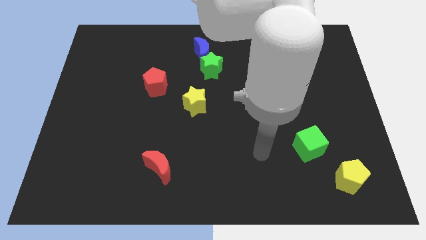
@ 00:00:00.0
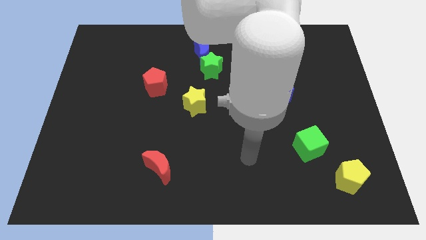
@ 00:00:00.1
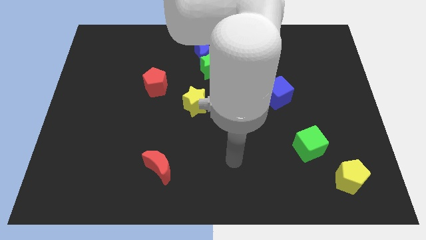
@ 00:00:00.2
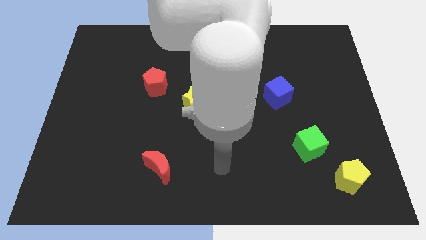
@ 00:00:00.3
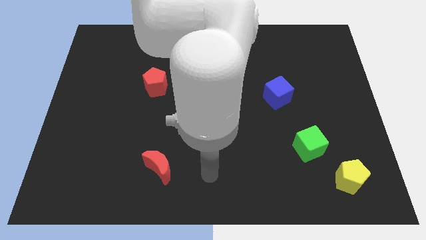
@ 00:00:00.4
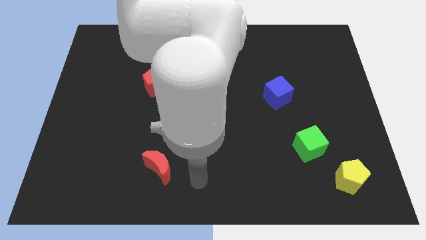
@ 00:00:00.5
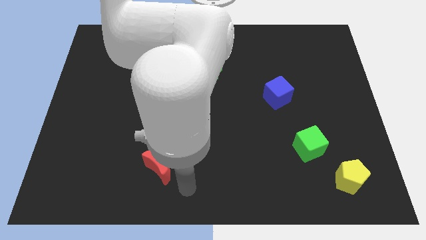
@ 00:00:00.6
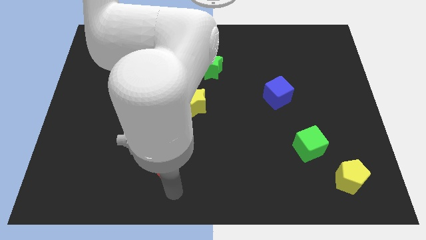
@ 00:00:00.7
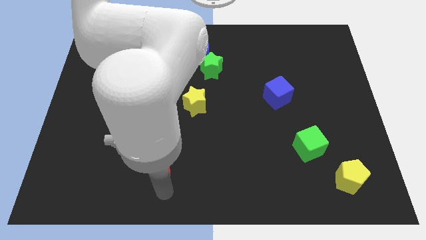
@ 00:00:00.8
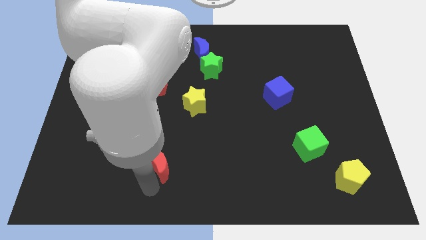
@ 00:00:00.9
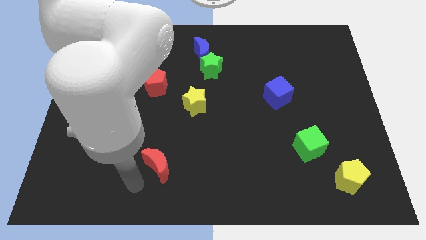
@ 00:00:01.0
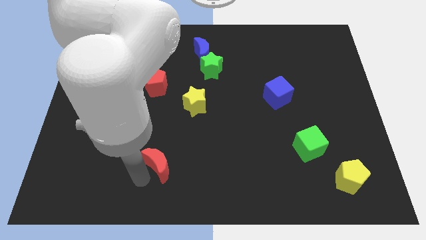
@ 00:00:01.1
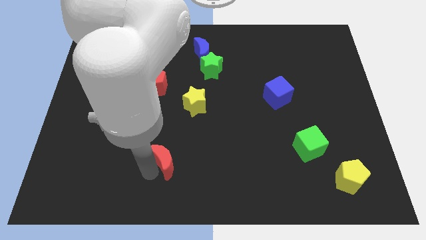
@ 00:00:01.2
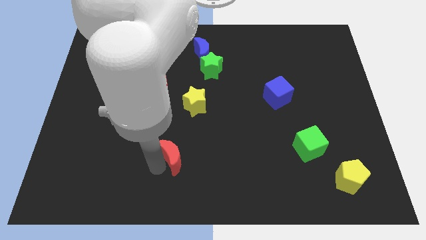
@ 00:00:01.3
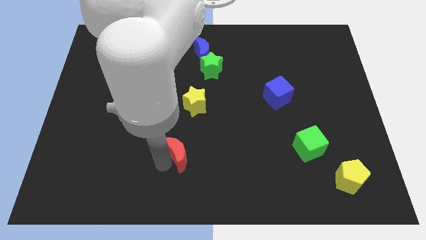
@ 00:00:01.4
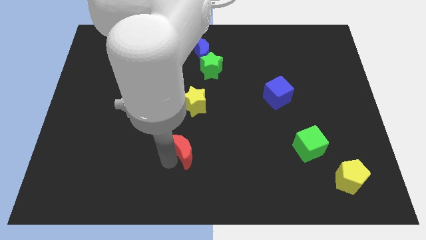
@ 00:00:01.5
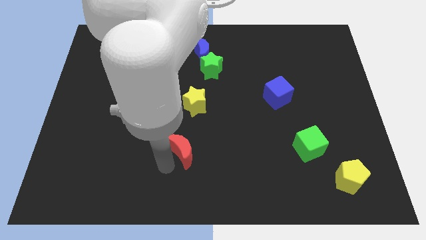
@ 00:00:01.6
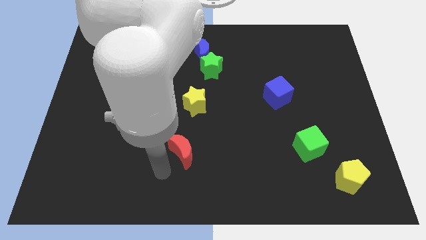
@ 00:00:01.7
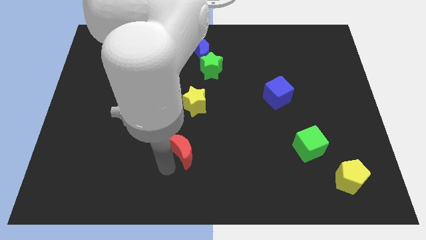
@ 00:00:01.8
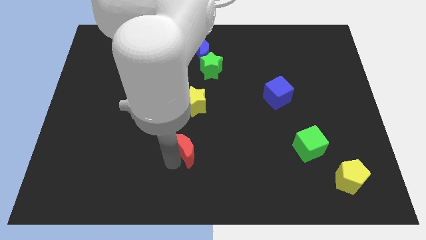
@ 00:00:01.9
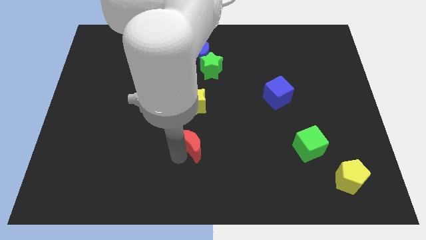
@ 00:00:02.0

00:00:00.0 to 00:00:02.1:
slightly move the red moon up and to the right

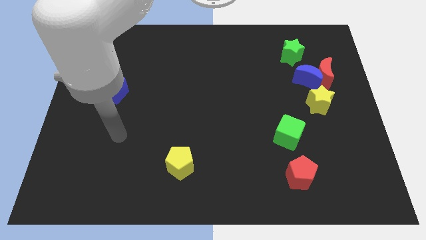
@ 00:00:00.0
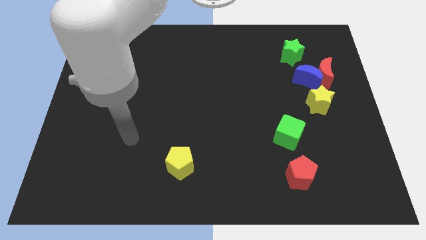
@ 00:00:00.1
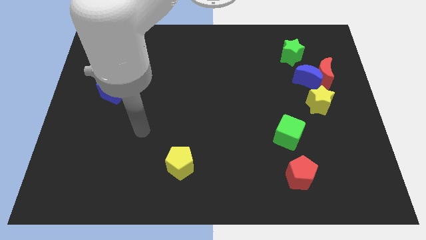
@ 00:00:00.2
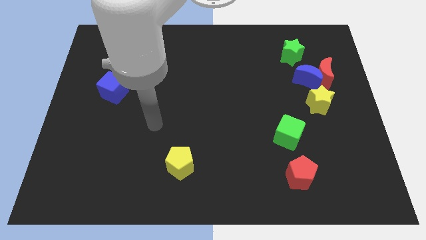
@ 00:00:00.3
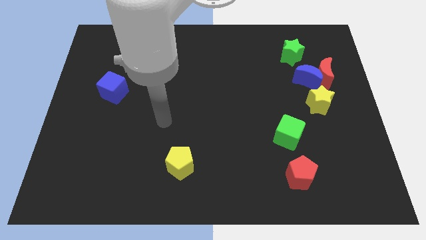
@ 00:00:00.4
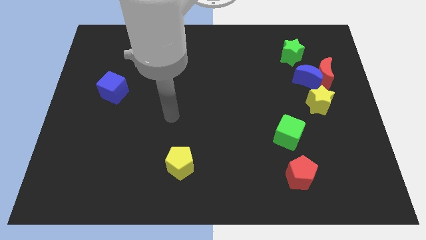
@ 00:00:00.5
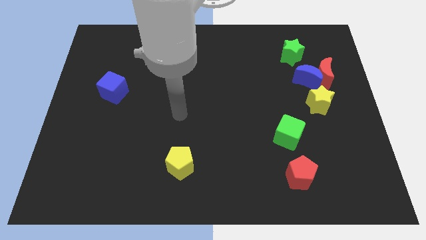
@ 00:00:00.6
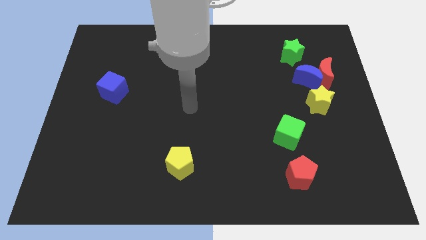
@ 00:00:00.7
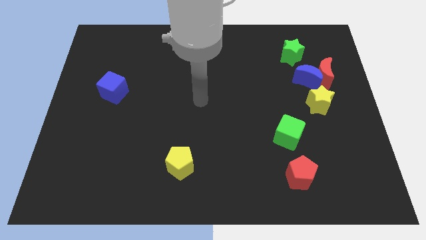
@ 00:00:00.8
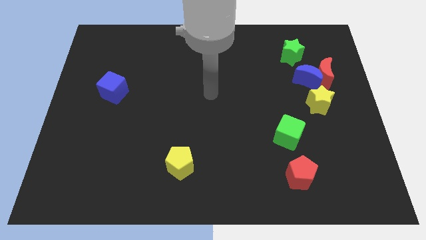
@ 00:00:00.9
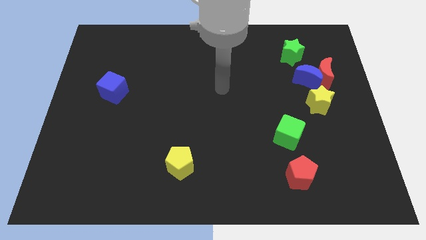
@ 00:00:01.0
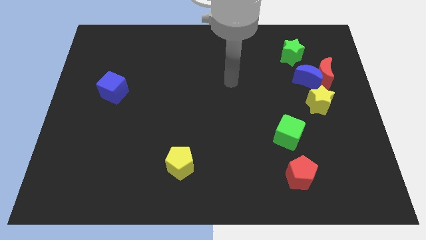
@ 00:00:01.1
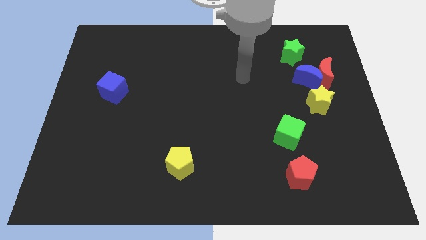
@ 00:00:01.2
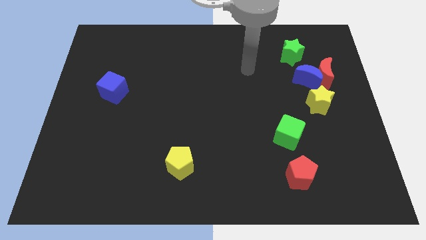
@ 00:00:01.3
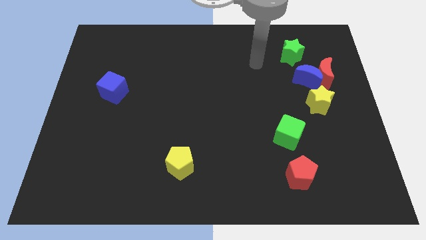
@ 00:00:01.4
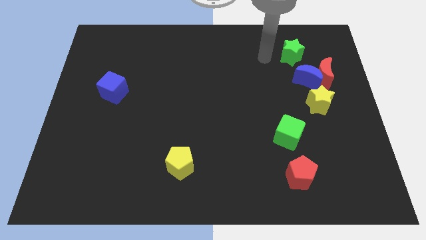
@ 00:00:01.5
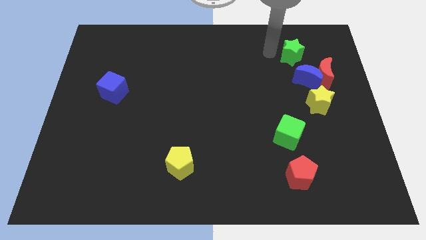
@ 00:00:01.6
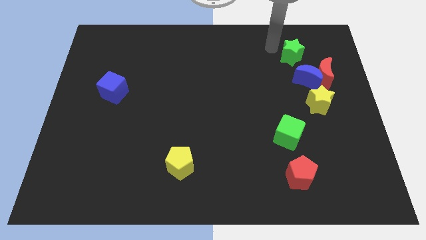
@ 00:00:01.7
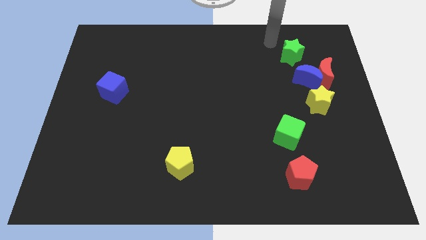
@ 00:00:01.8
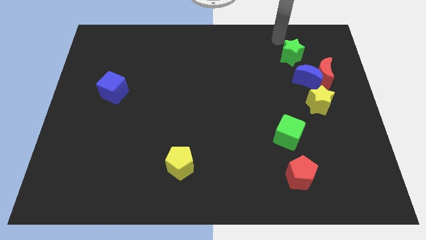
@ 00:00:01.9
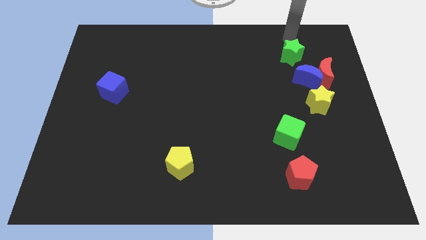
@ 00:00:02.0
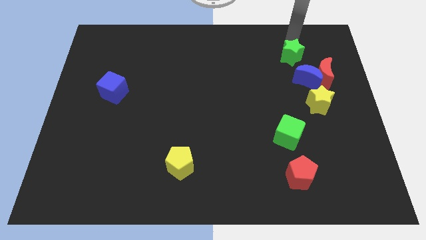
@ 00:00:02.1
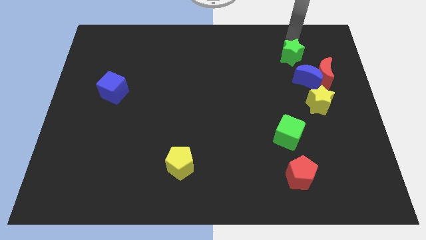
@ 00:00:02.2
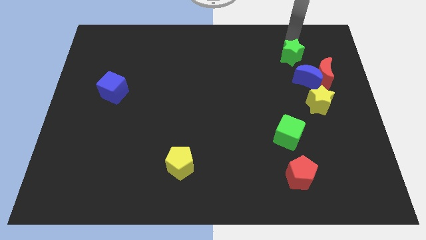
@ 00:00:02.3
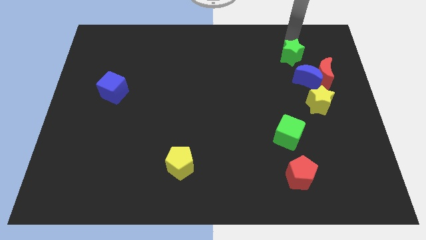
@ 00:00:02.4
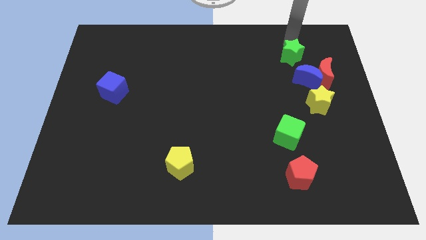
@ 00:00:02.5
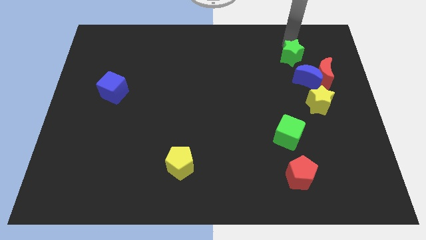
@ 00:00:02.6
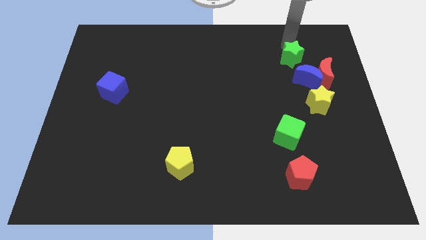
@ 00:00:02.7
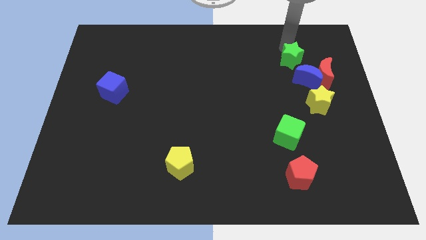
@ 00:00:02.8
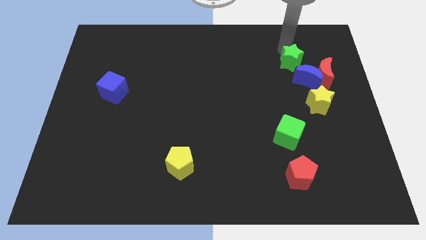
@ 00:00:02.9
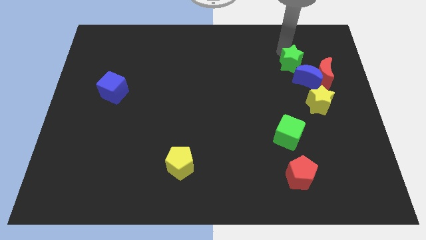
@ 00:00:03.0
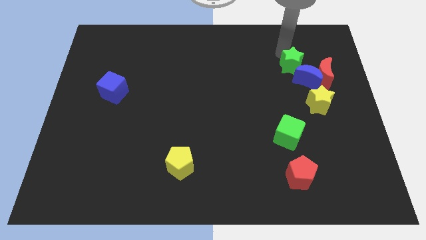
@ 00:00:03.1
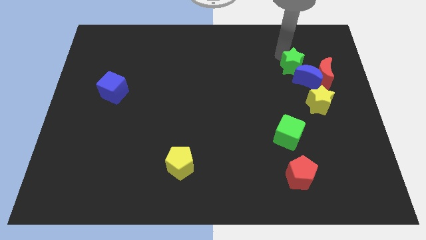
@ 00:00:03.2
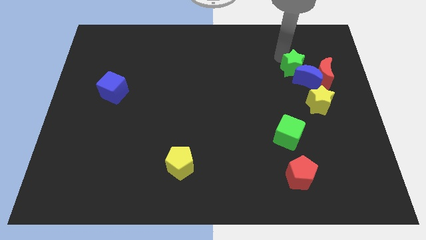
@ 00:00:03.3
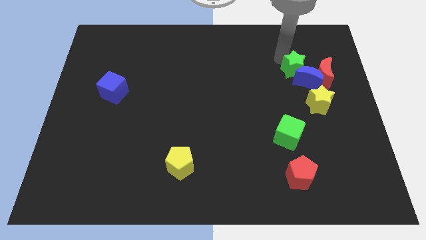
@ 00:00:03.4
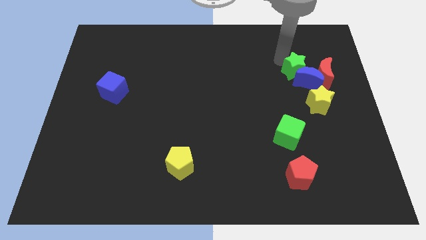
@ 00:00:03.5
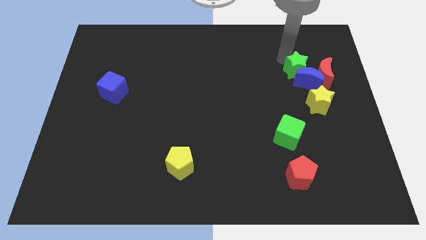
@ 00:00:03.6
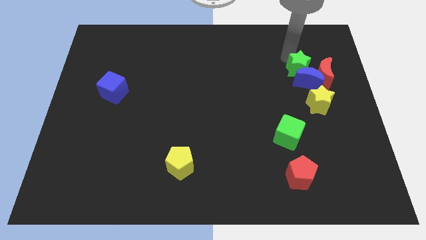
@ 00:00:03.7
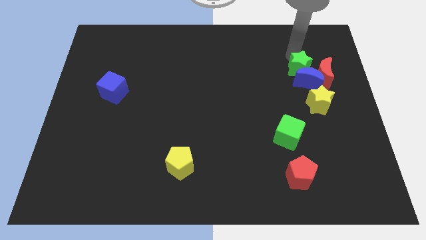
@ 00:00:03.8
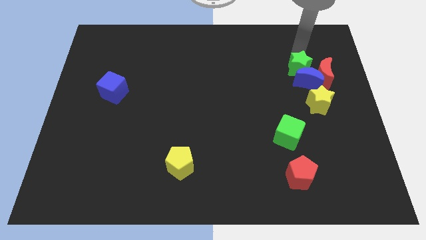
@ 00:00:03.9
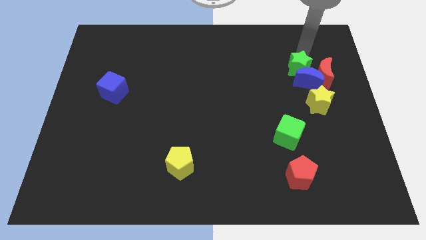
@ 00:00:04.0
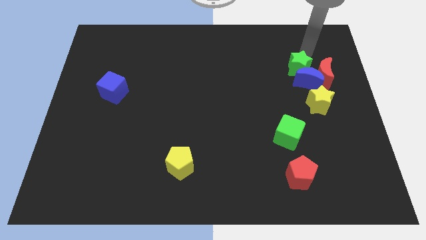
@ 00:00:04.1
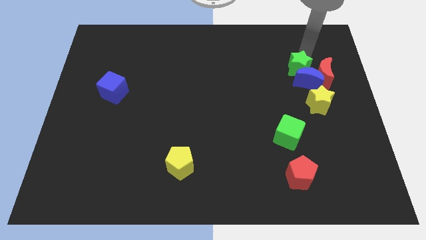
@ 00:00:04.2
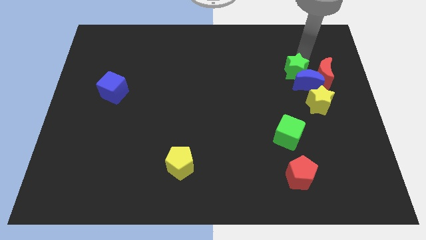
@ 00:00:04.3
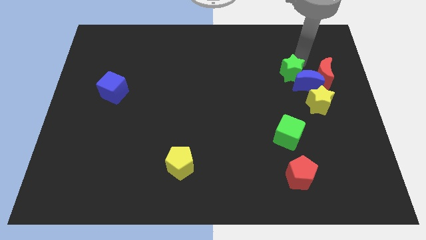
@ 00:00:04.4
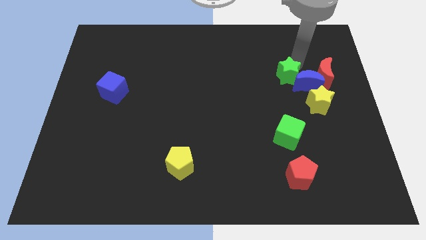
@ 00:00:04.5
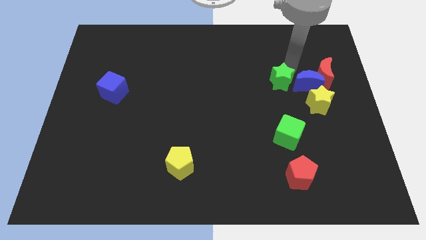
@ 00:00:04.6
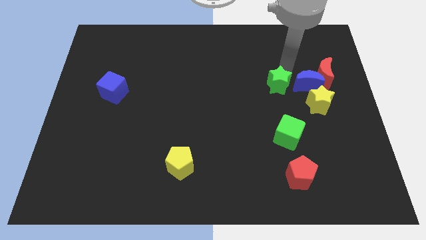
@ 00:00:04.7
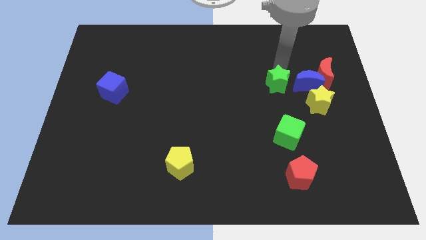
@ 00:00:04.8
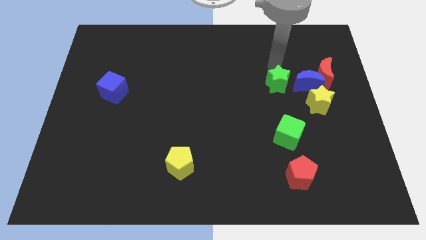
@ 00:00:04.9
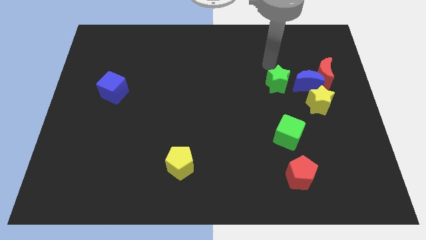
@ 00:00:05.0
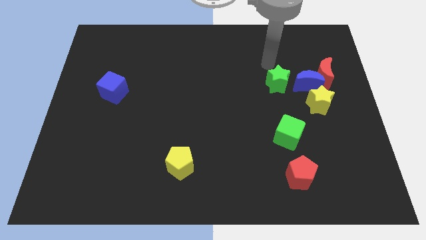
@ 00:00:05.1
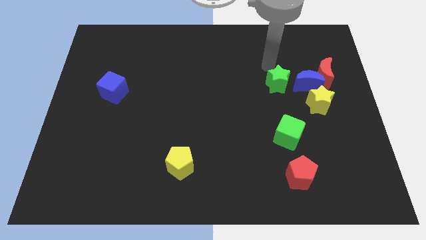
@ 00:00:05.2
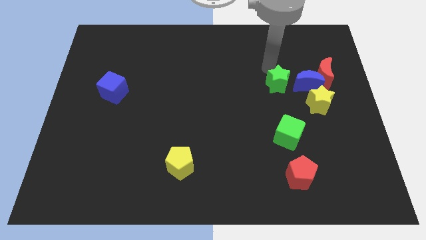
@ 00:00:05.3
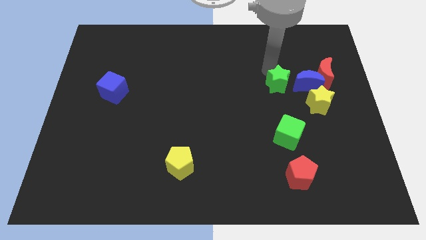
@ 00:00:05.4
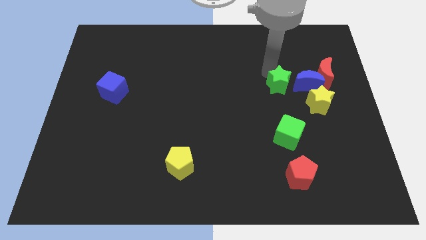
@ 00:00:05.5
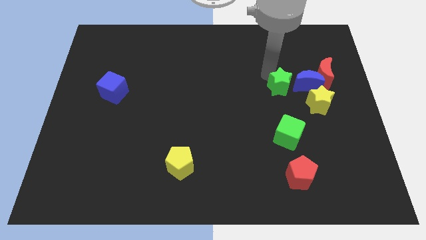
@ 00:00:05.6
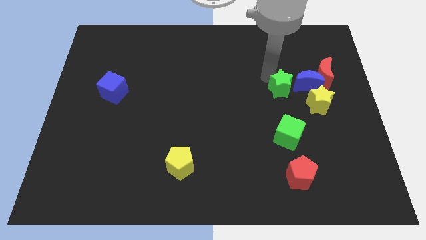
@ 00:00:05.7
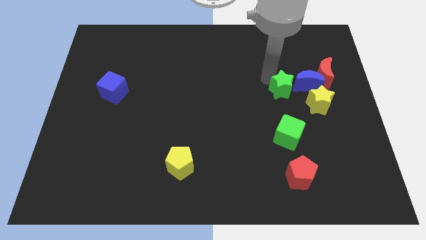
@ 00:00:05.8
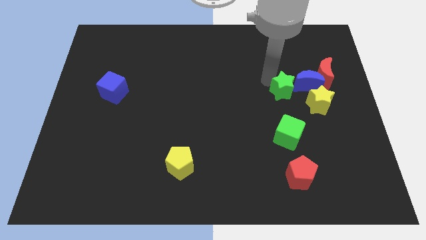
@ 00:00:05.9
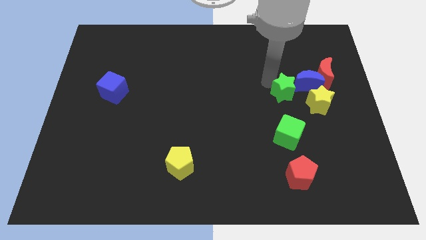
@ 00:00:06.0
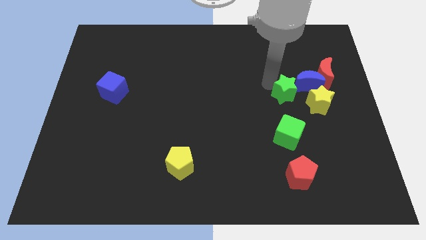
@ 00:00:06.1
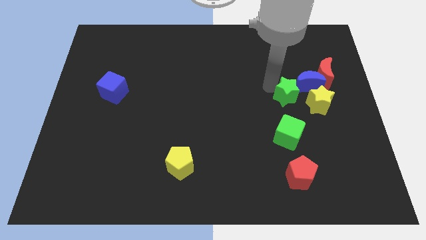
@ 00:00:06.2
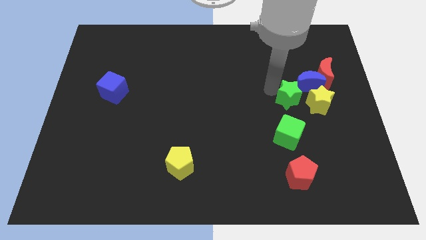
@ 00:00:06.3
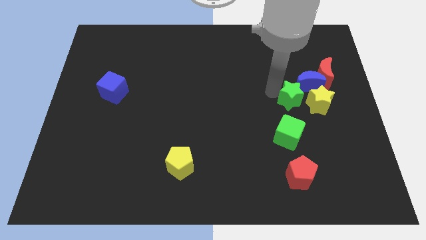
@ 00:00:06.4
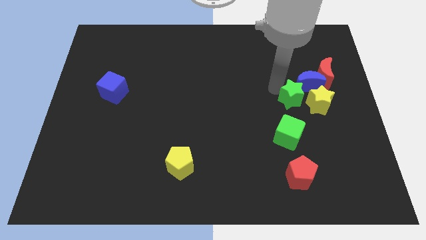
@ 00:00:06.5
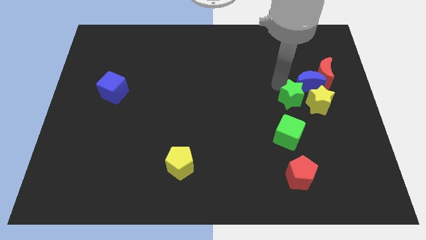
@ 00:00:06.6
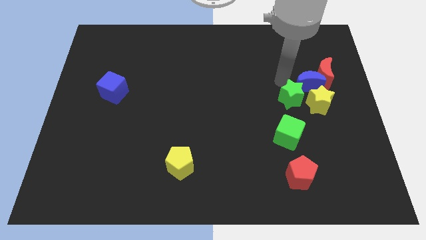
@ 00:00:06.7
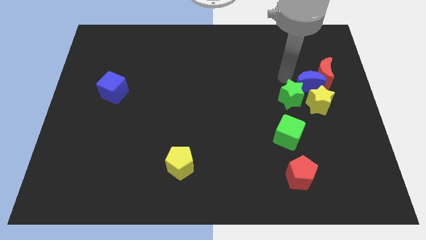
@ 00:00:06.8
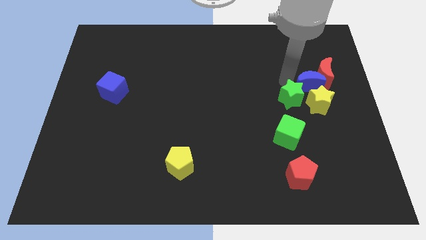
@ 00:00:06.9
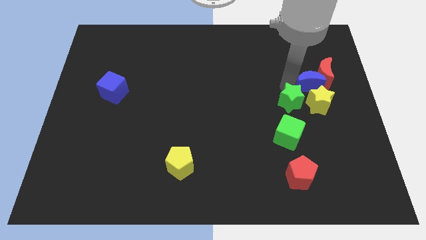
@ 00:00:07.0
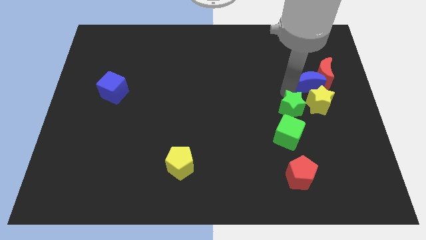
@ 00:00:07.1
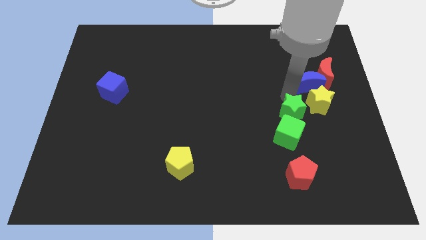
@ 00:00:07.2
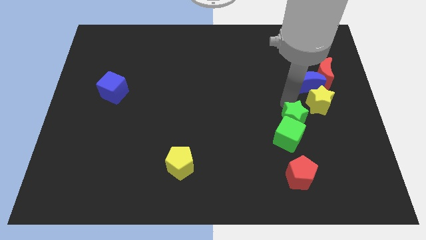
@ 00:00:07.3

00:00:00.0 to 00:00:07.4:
slide the green star down
